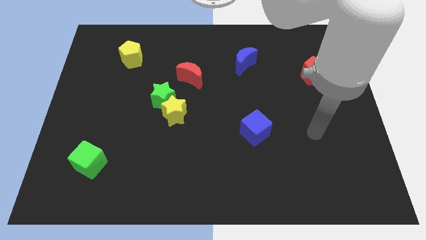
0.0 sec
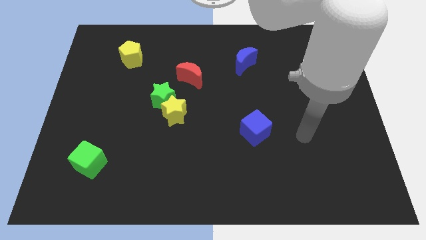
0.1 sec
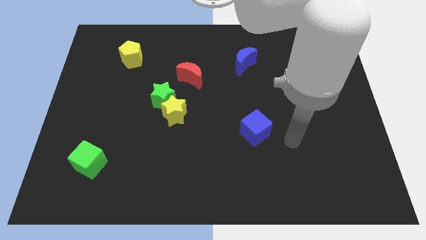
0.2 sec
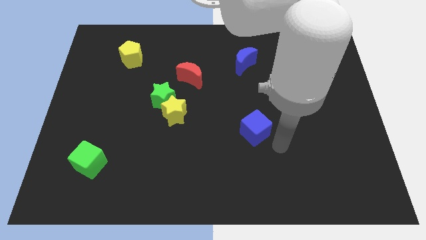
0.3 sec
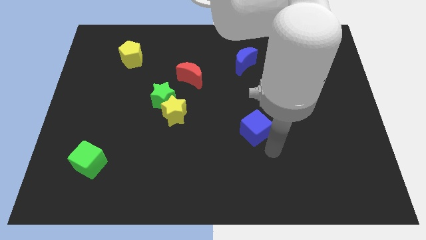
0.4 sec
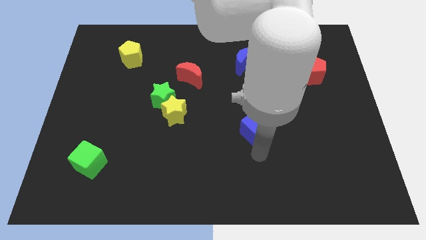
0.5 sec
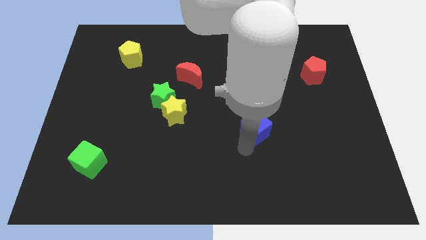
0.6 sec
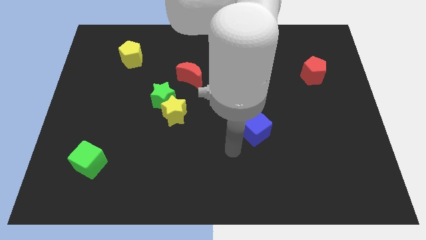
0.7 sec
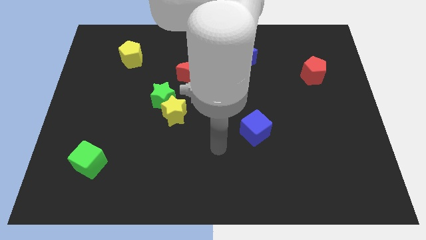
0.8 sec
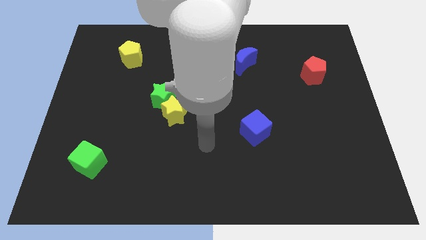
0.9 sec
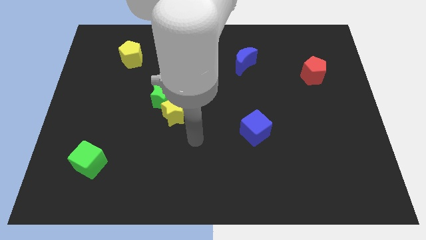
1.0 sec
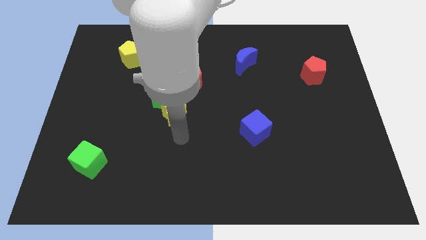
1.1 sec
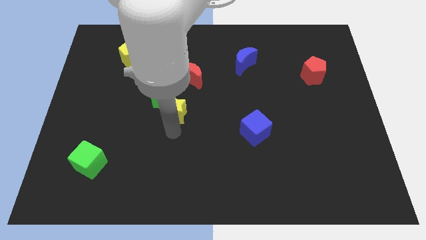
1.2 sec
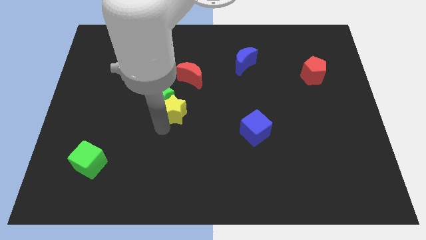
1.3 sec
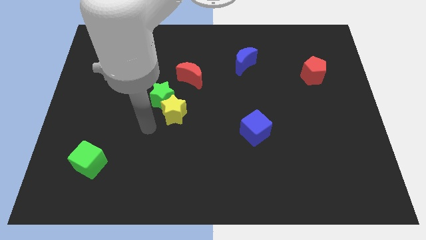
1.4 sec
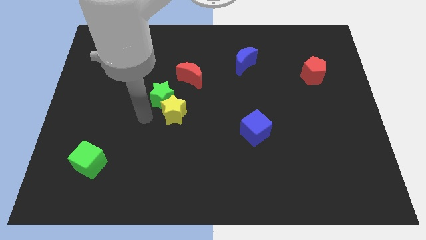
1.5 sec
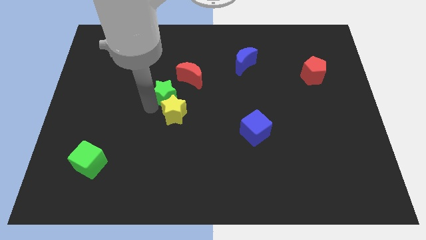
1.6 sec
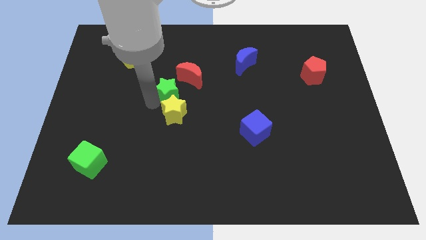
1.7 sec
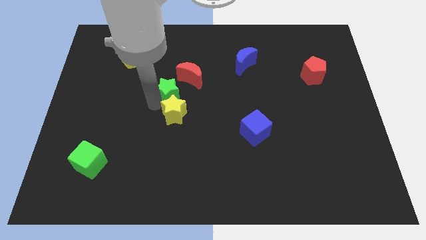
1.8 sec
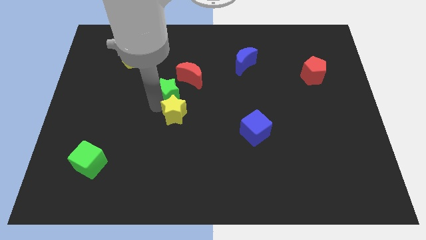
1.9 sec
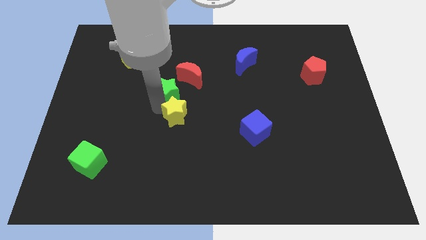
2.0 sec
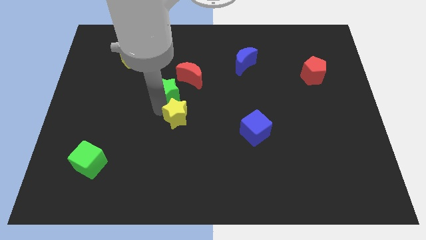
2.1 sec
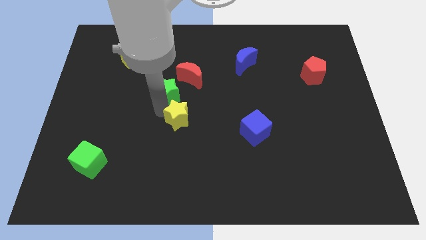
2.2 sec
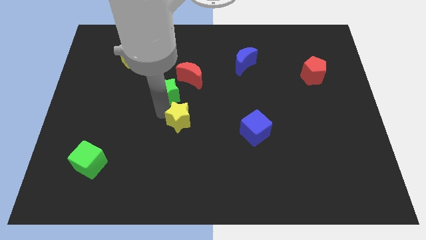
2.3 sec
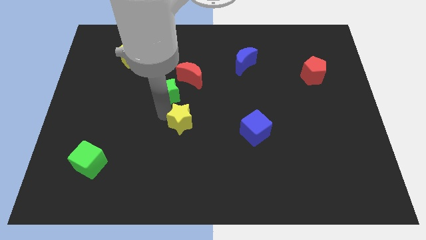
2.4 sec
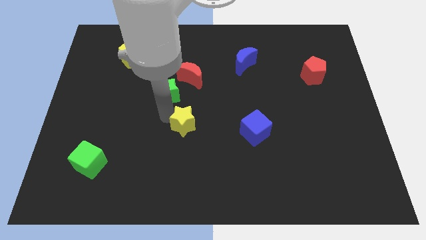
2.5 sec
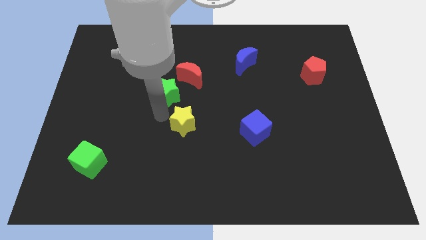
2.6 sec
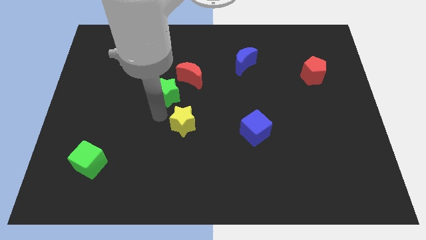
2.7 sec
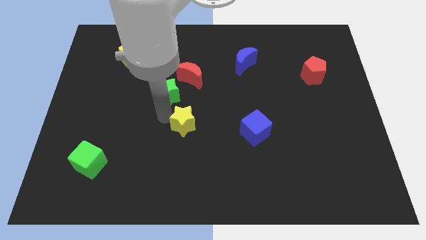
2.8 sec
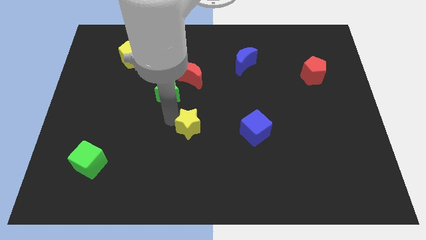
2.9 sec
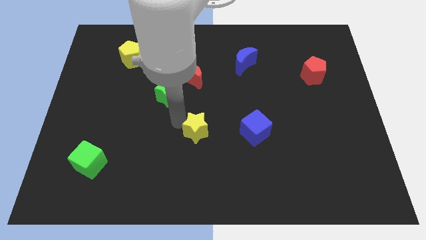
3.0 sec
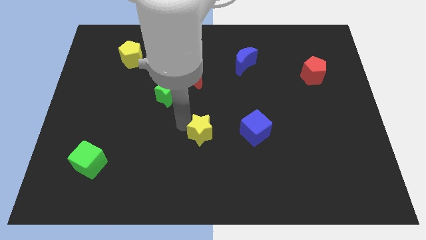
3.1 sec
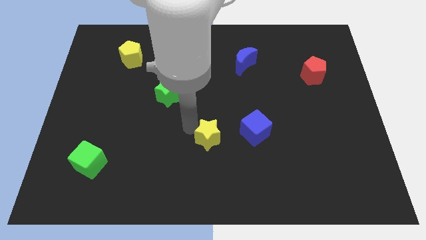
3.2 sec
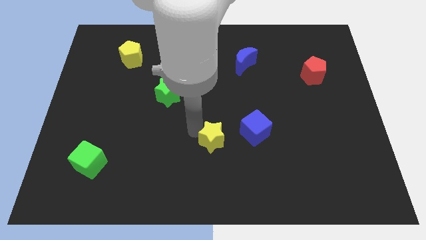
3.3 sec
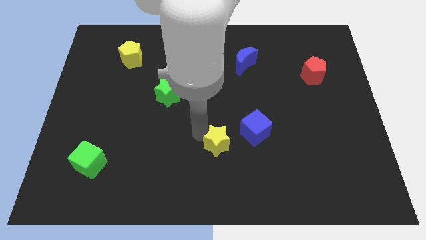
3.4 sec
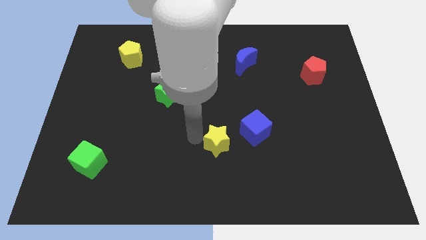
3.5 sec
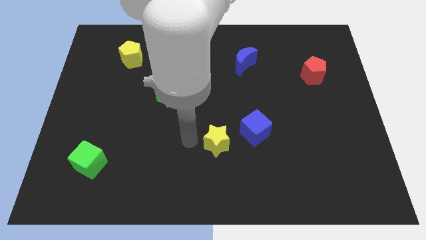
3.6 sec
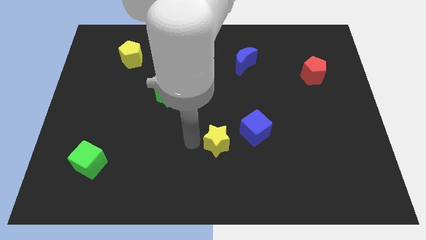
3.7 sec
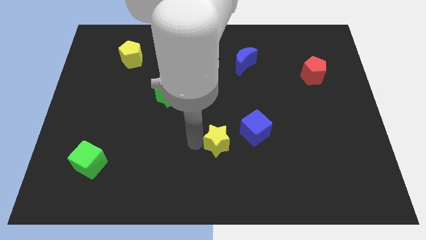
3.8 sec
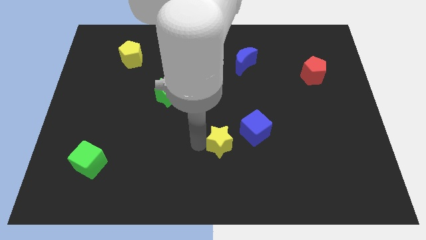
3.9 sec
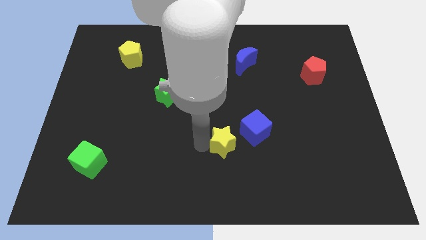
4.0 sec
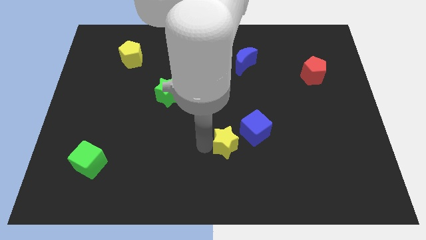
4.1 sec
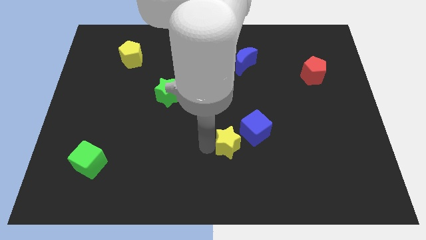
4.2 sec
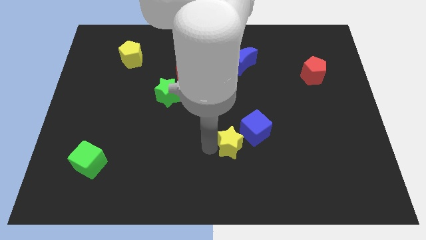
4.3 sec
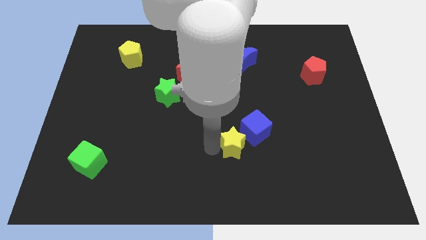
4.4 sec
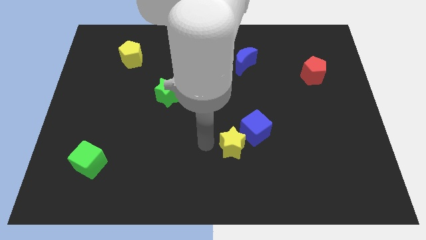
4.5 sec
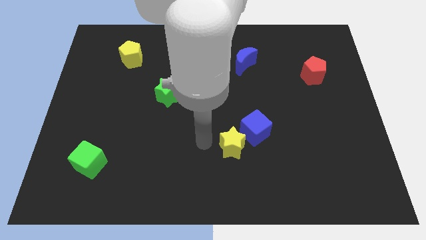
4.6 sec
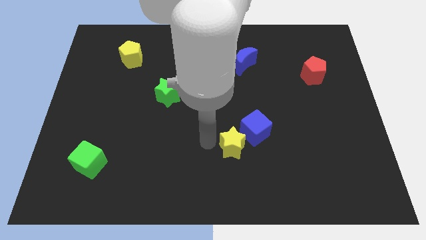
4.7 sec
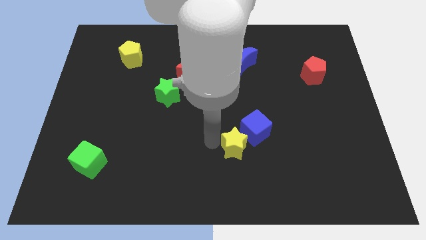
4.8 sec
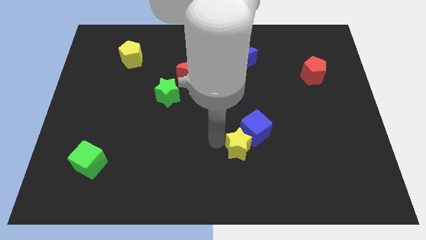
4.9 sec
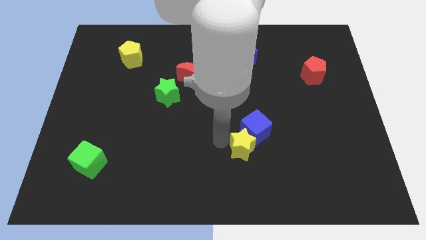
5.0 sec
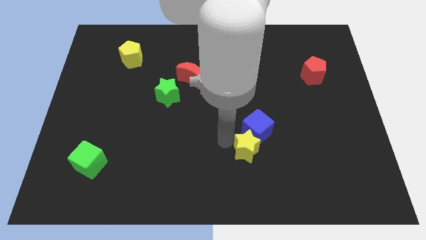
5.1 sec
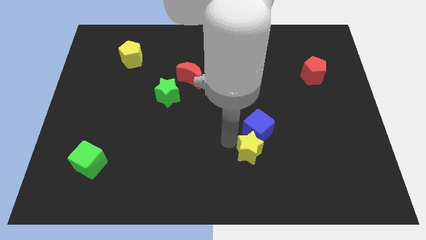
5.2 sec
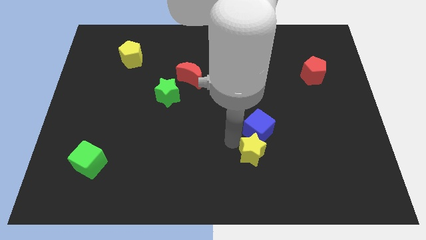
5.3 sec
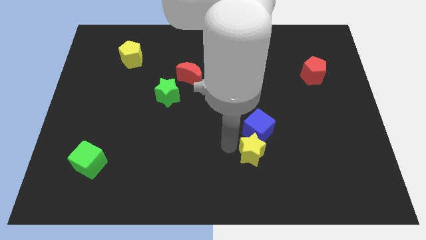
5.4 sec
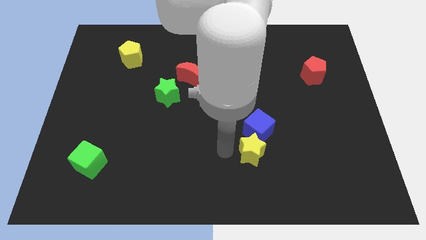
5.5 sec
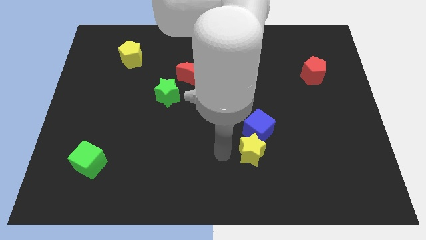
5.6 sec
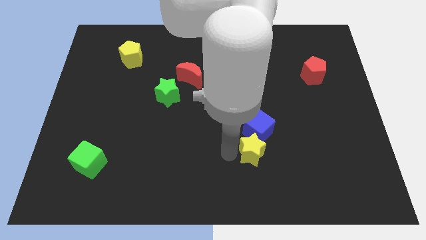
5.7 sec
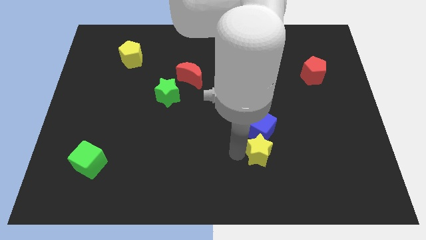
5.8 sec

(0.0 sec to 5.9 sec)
slide the yellow star diagonally down and to the right of the blue cube

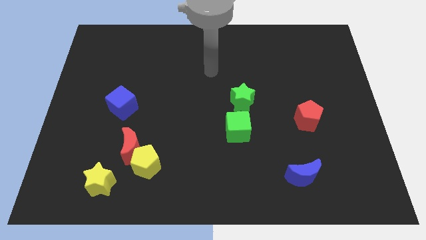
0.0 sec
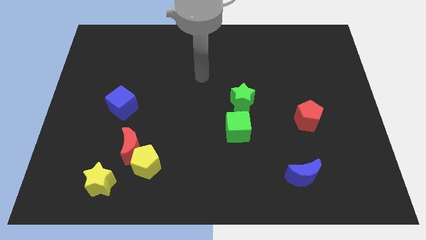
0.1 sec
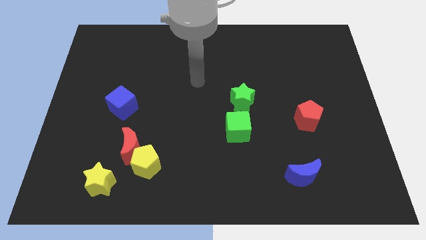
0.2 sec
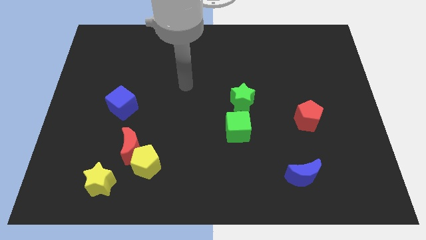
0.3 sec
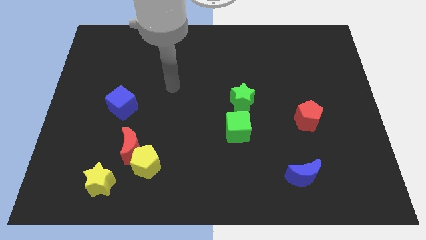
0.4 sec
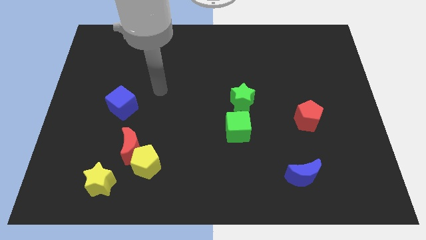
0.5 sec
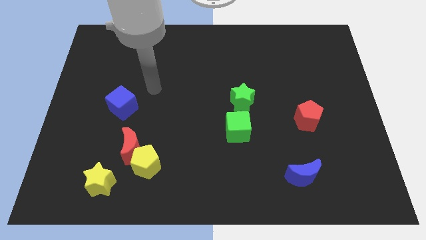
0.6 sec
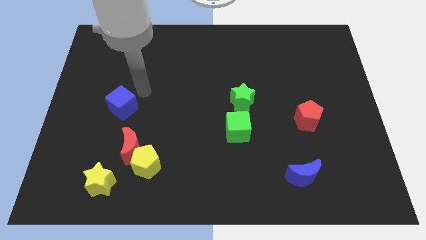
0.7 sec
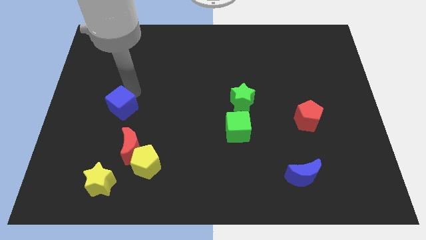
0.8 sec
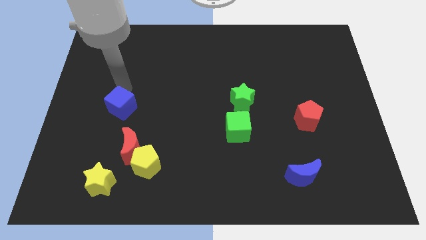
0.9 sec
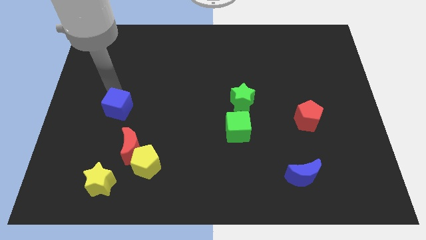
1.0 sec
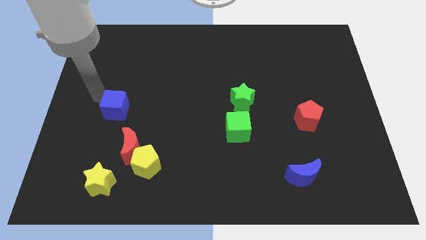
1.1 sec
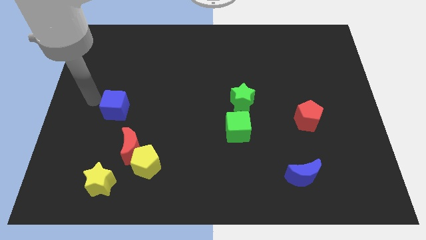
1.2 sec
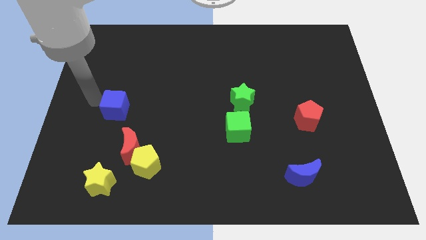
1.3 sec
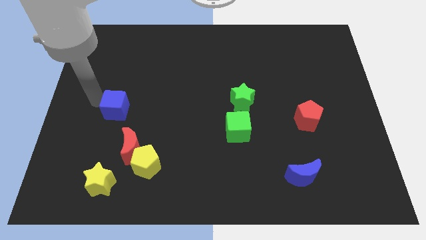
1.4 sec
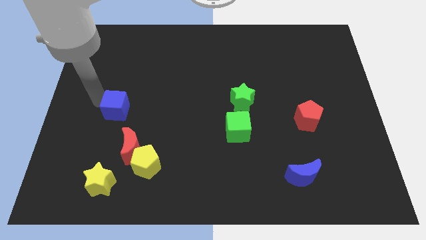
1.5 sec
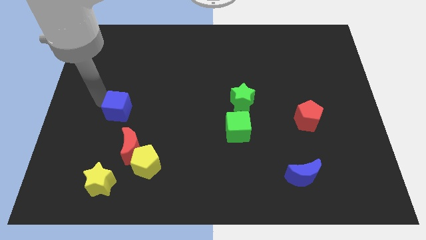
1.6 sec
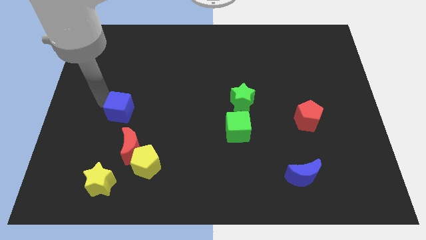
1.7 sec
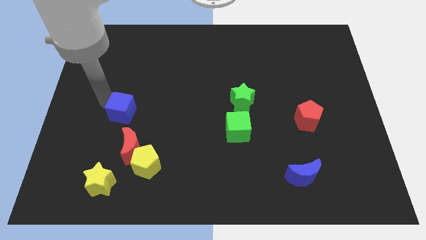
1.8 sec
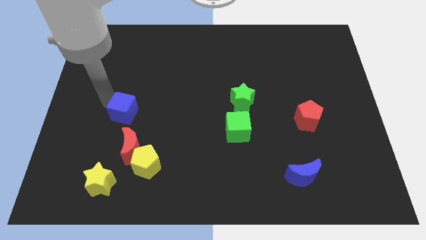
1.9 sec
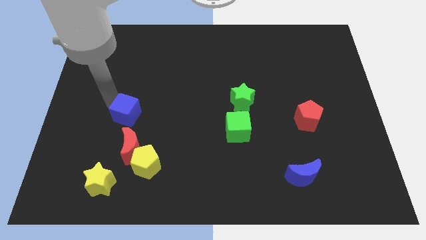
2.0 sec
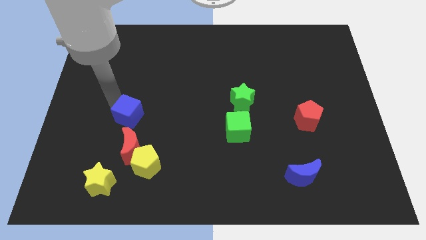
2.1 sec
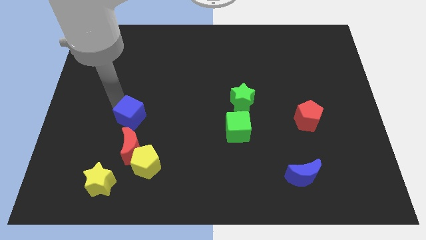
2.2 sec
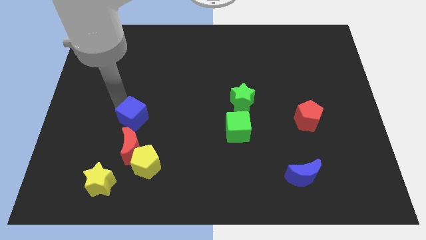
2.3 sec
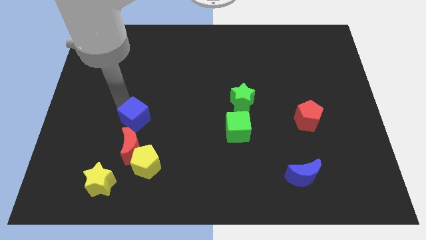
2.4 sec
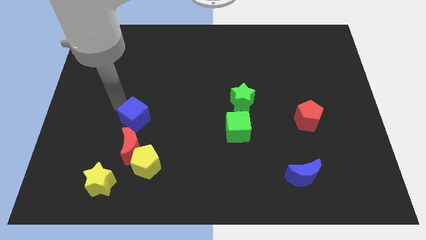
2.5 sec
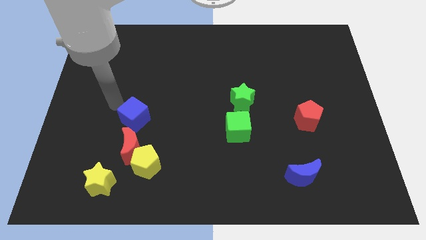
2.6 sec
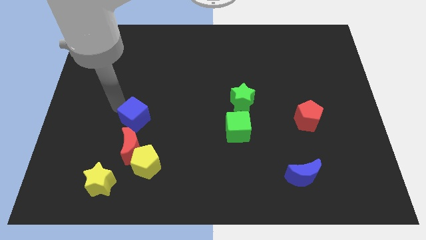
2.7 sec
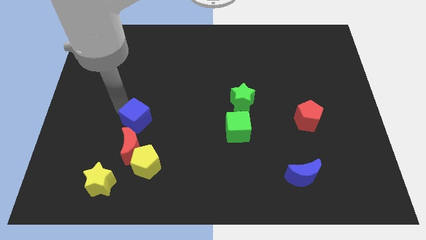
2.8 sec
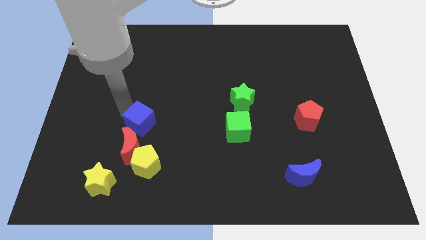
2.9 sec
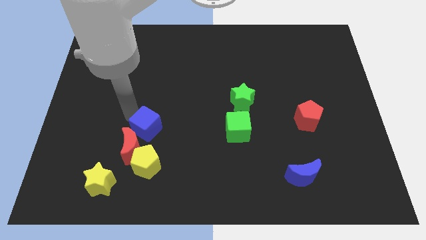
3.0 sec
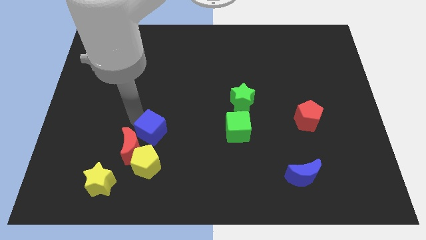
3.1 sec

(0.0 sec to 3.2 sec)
slide the blue cube to the right of the red moon
